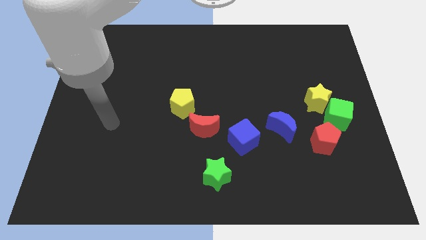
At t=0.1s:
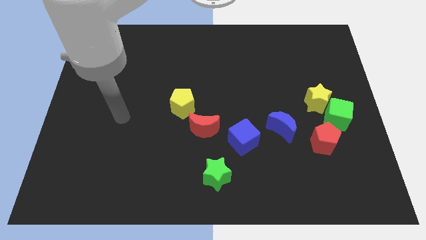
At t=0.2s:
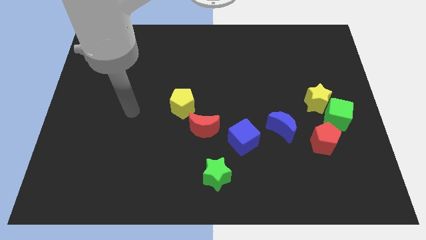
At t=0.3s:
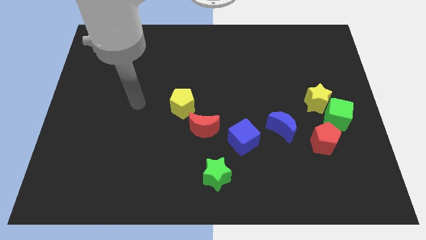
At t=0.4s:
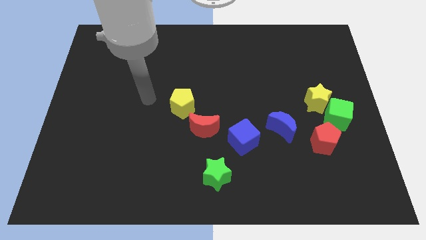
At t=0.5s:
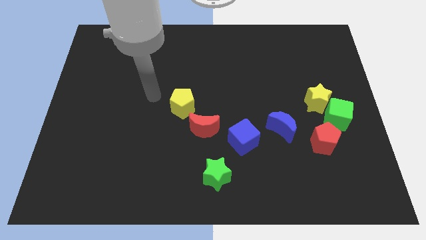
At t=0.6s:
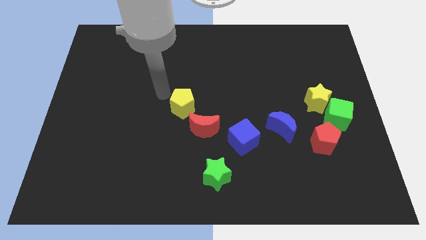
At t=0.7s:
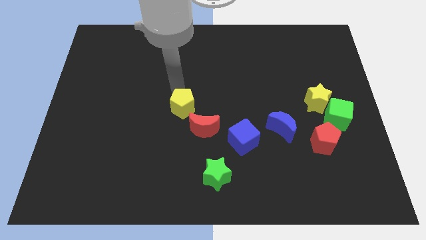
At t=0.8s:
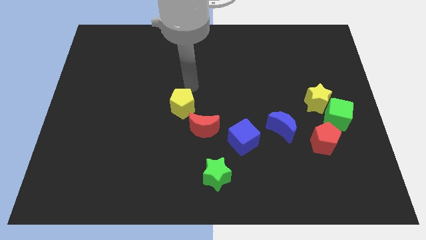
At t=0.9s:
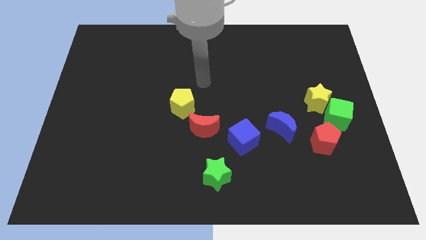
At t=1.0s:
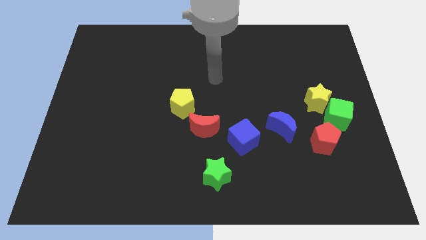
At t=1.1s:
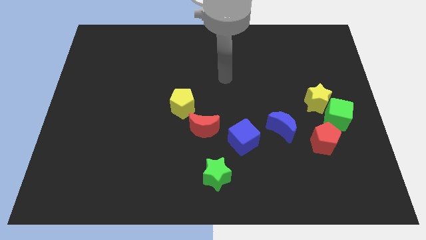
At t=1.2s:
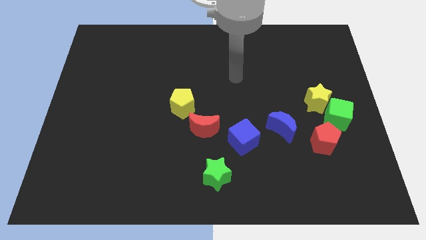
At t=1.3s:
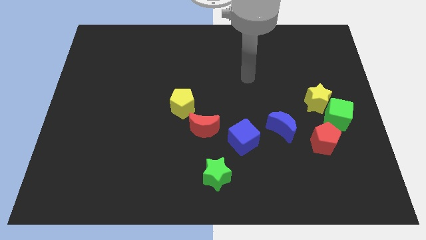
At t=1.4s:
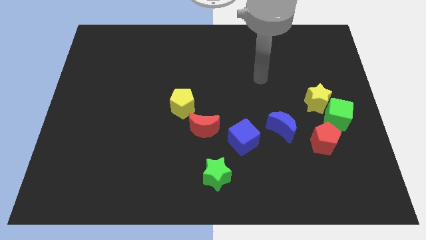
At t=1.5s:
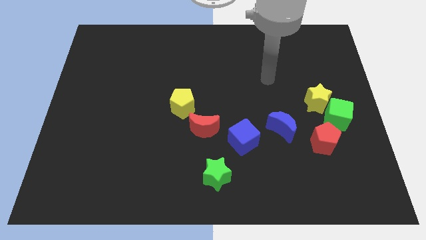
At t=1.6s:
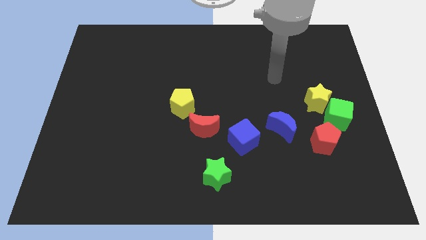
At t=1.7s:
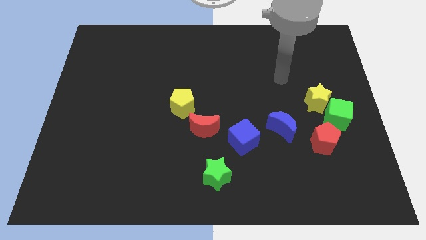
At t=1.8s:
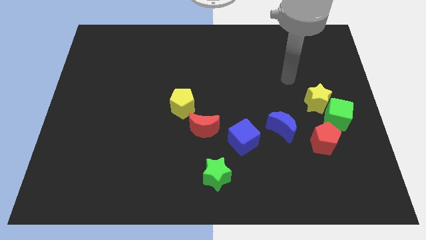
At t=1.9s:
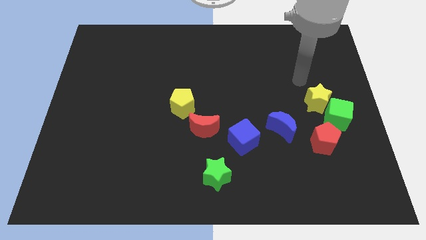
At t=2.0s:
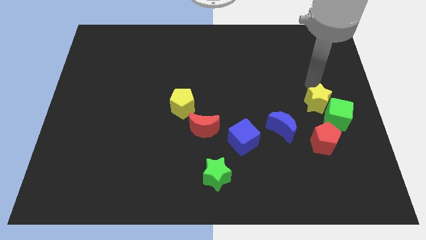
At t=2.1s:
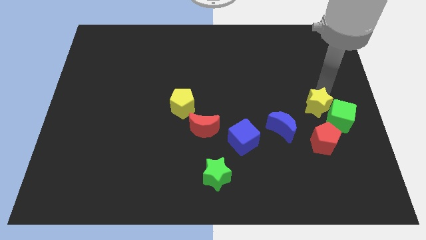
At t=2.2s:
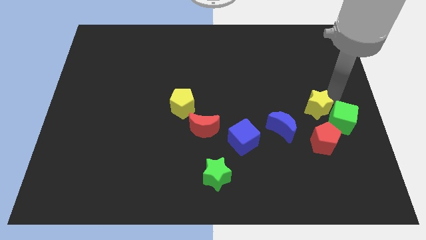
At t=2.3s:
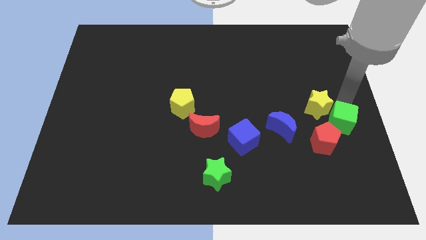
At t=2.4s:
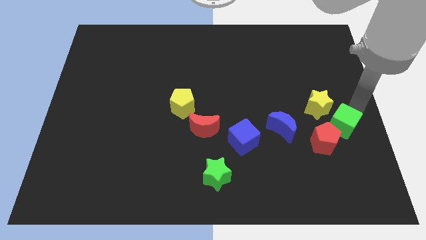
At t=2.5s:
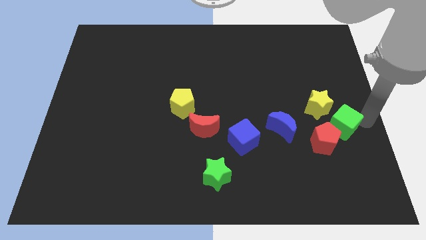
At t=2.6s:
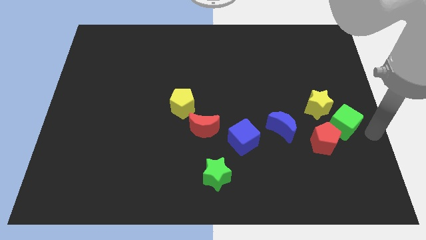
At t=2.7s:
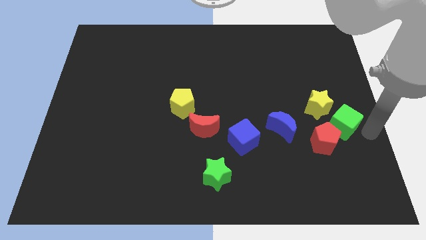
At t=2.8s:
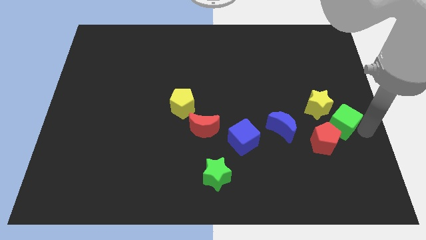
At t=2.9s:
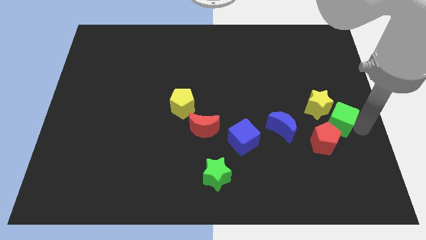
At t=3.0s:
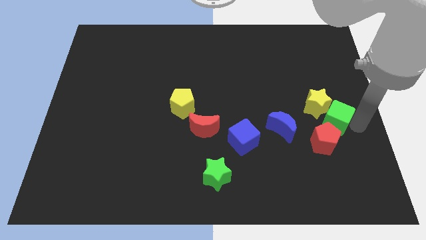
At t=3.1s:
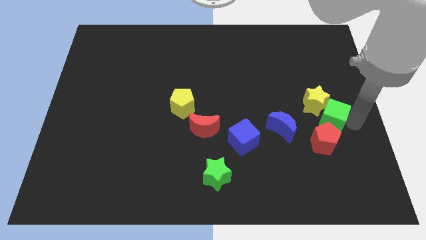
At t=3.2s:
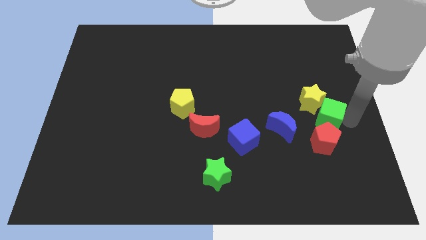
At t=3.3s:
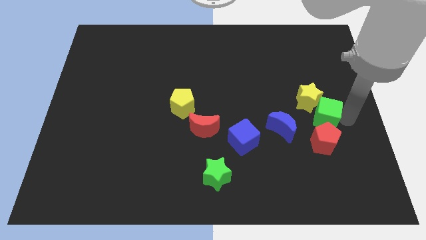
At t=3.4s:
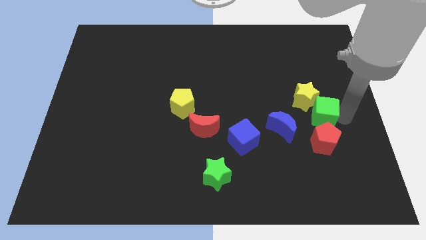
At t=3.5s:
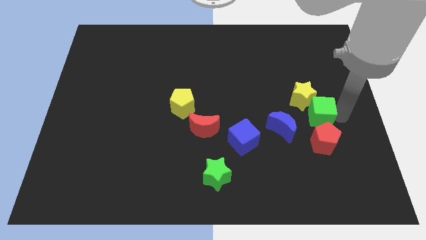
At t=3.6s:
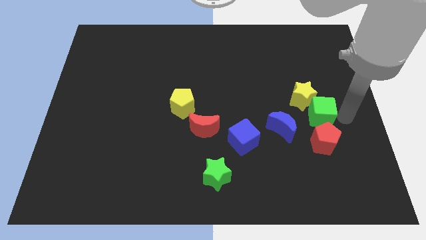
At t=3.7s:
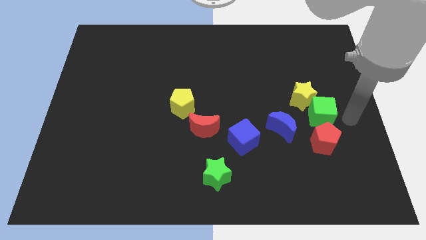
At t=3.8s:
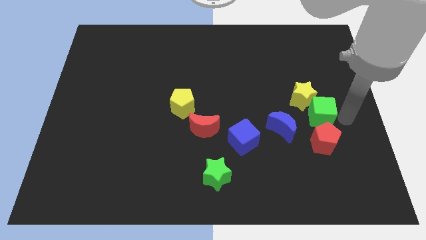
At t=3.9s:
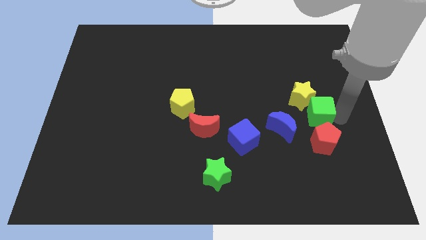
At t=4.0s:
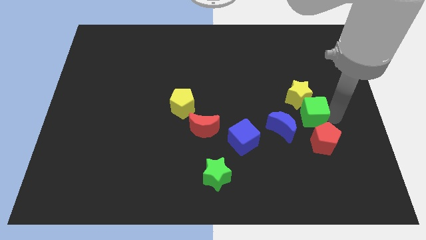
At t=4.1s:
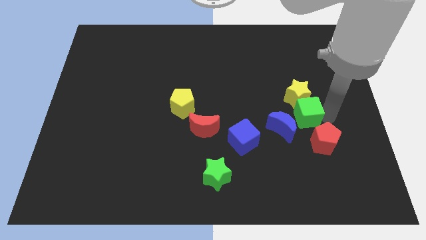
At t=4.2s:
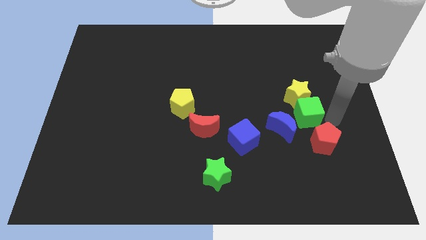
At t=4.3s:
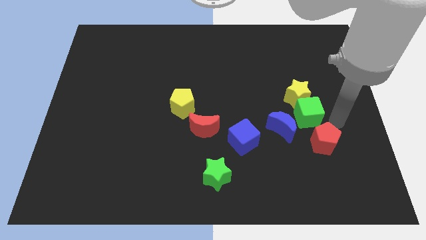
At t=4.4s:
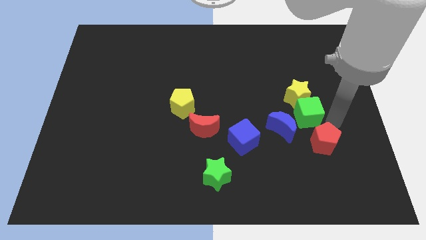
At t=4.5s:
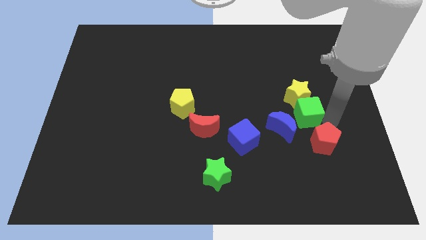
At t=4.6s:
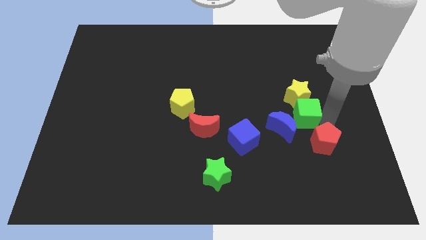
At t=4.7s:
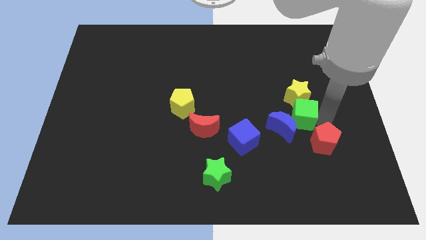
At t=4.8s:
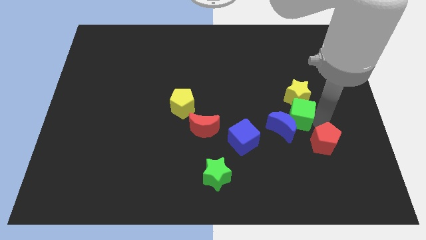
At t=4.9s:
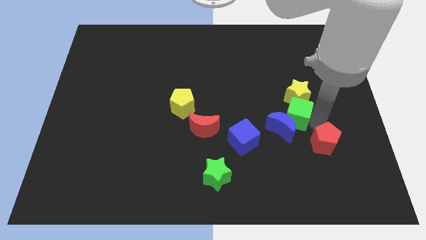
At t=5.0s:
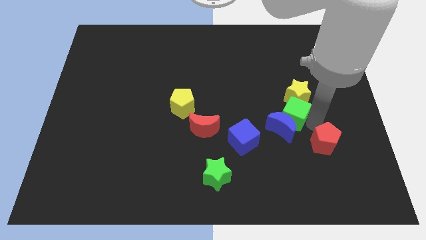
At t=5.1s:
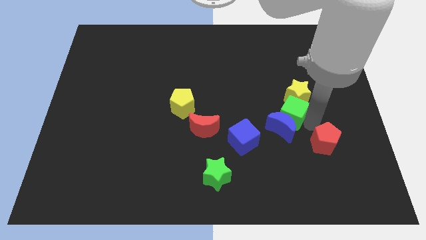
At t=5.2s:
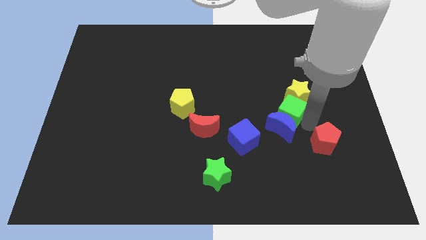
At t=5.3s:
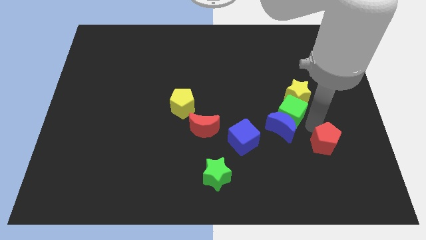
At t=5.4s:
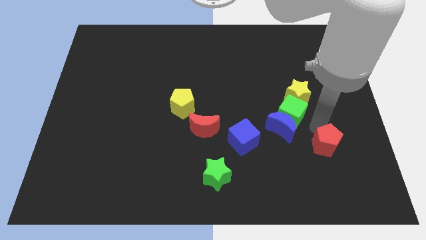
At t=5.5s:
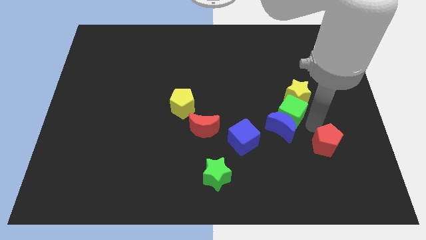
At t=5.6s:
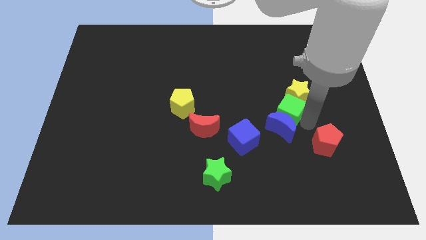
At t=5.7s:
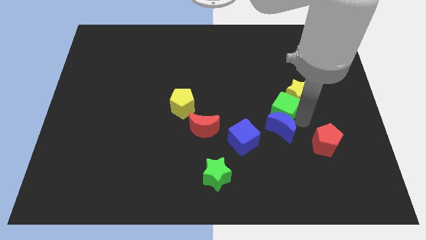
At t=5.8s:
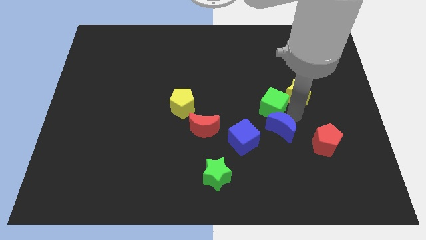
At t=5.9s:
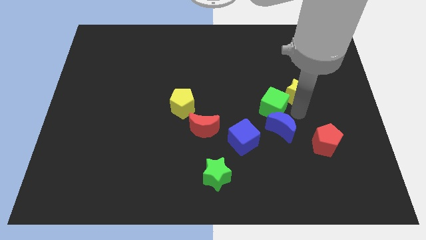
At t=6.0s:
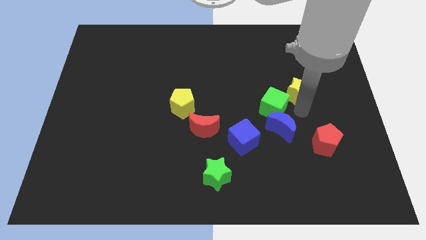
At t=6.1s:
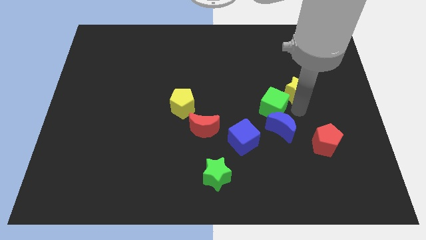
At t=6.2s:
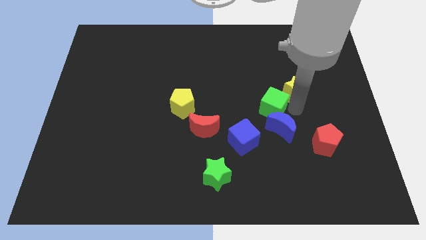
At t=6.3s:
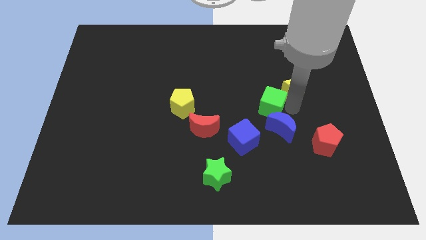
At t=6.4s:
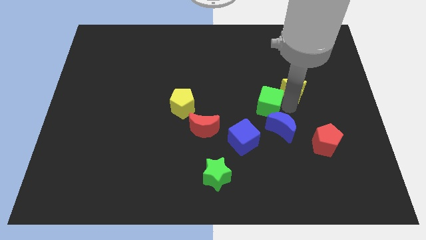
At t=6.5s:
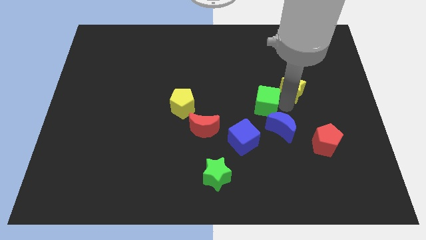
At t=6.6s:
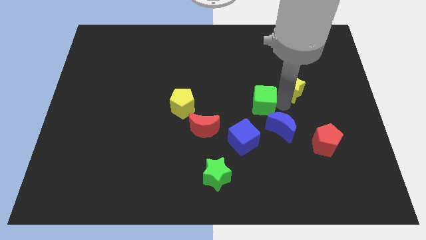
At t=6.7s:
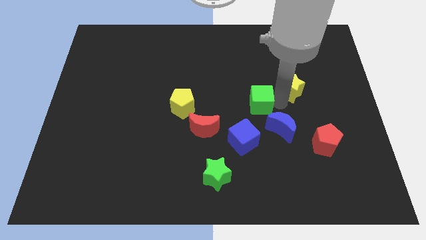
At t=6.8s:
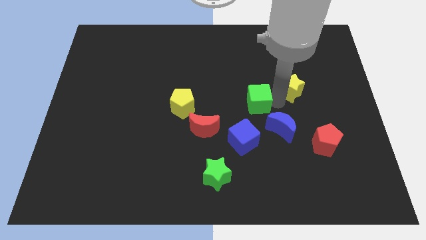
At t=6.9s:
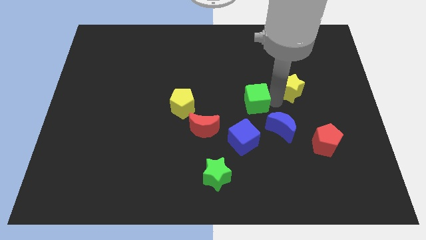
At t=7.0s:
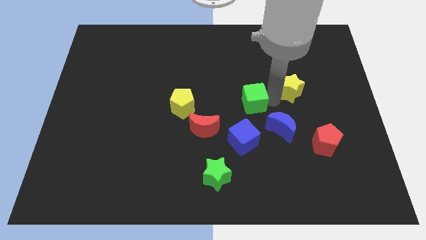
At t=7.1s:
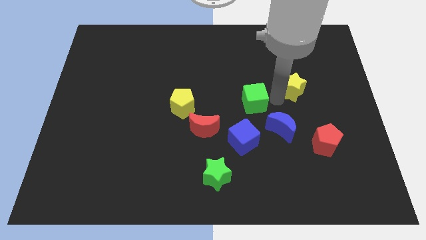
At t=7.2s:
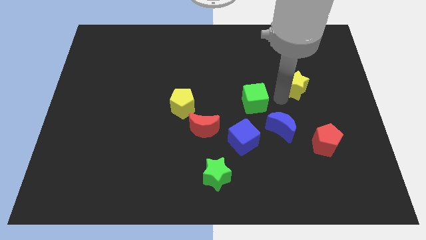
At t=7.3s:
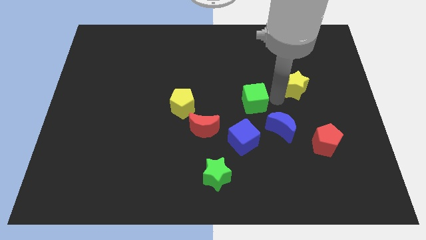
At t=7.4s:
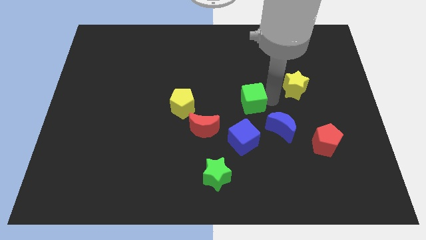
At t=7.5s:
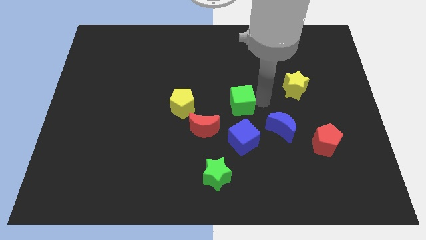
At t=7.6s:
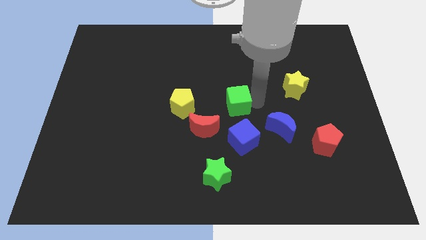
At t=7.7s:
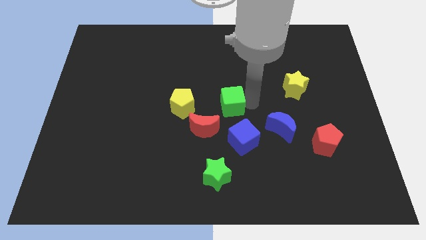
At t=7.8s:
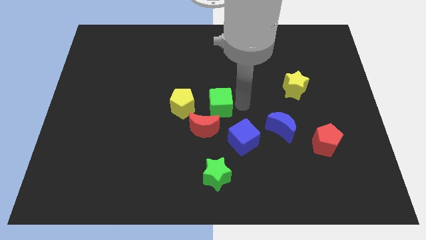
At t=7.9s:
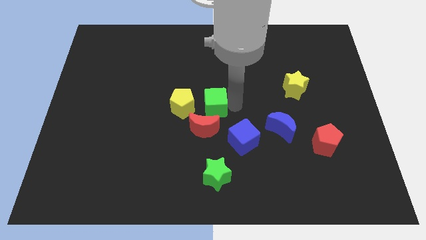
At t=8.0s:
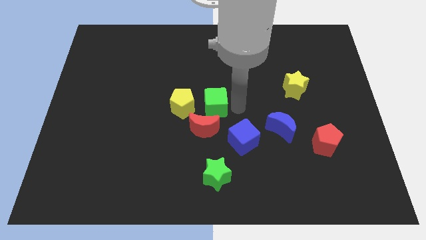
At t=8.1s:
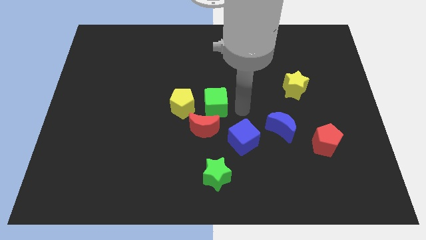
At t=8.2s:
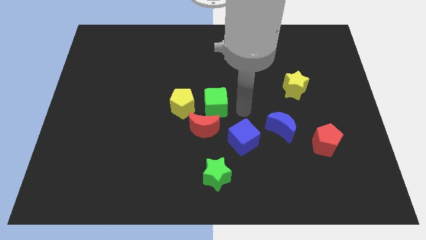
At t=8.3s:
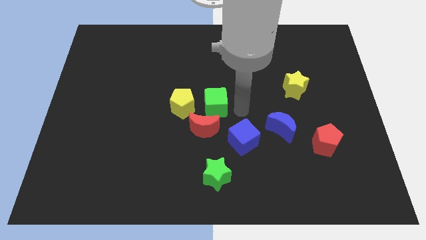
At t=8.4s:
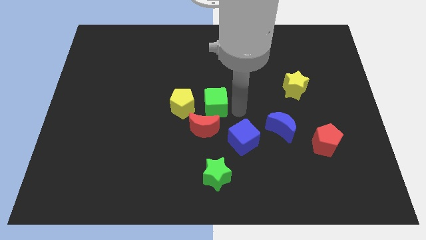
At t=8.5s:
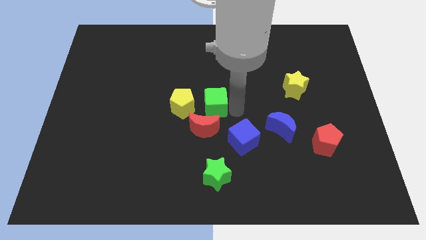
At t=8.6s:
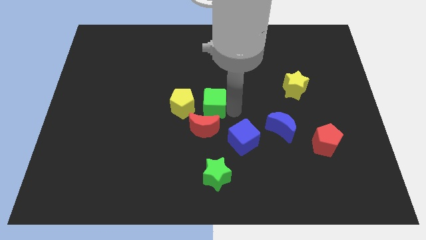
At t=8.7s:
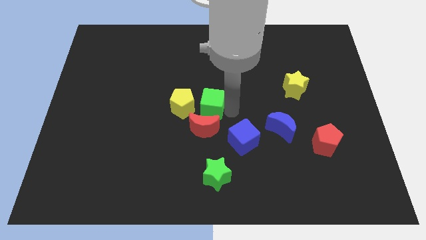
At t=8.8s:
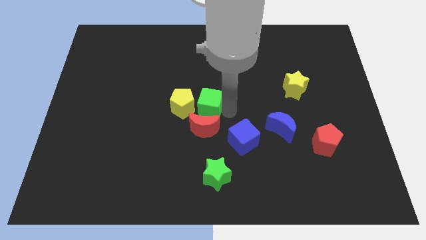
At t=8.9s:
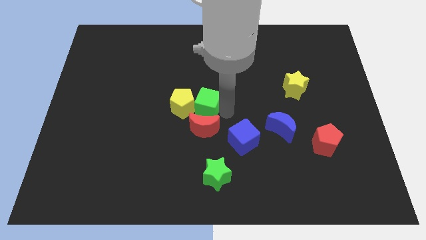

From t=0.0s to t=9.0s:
slide the green cube next to the yellow pentagon
